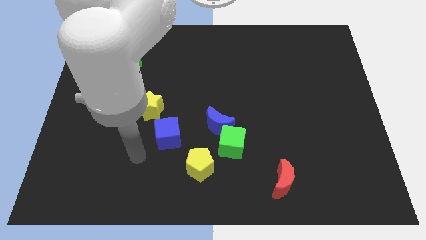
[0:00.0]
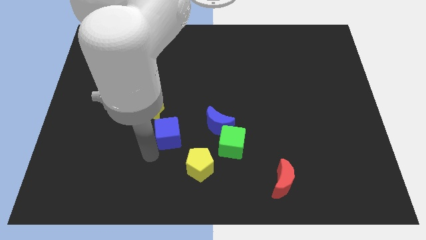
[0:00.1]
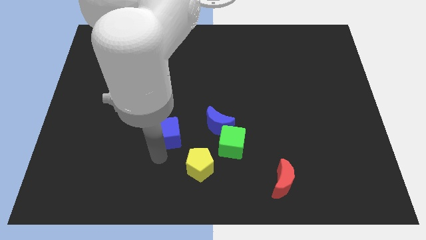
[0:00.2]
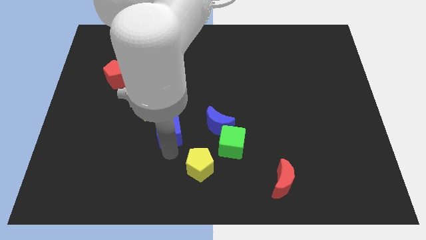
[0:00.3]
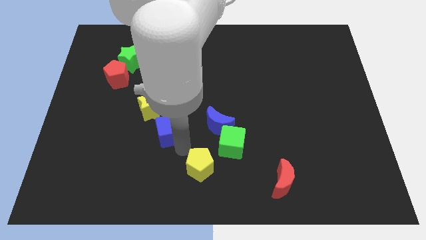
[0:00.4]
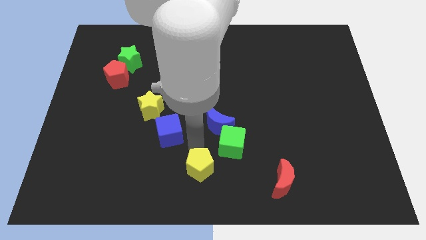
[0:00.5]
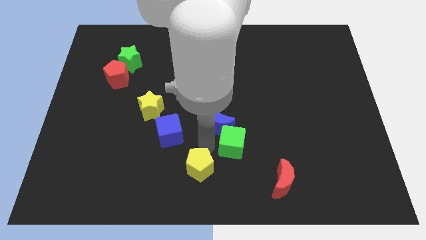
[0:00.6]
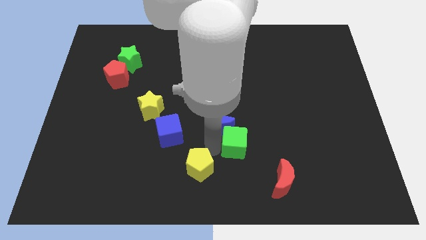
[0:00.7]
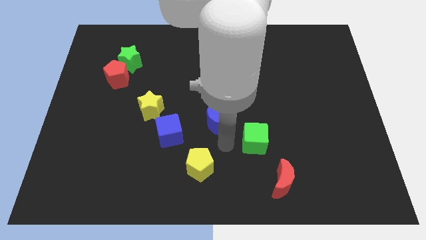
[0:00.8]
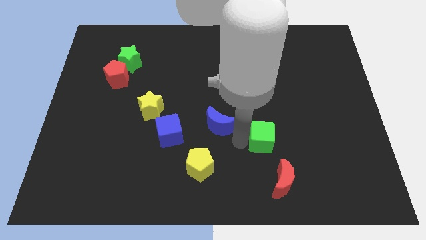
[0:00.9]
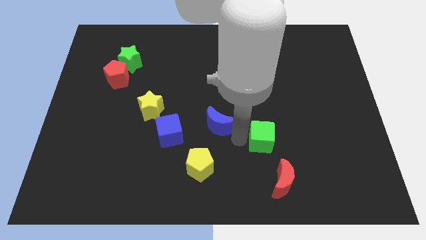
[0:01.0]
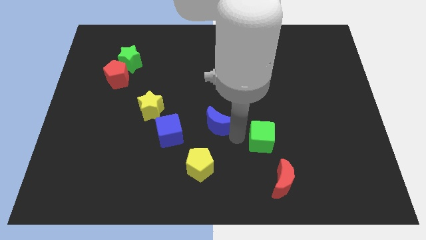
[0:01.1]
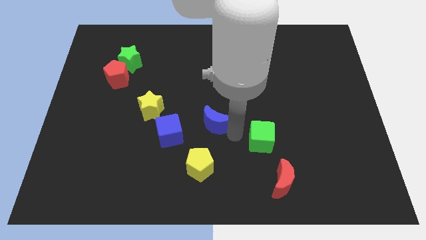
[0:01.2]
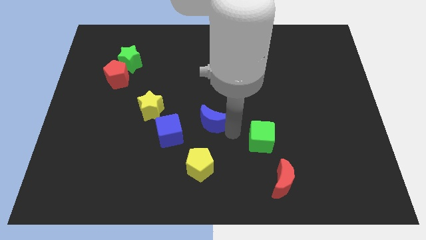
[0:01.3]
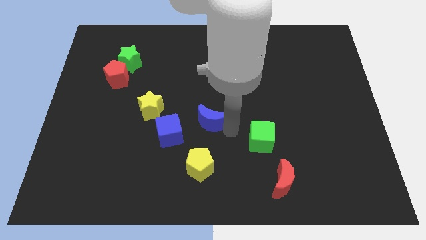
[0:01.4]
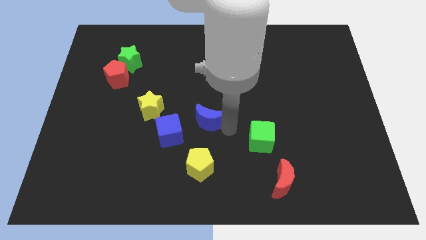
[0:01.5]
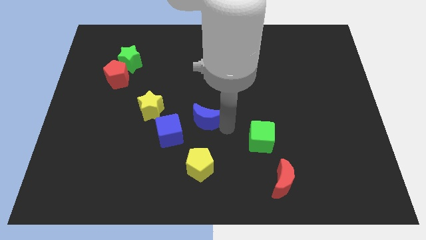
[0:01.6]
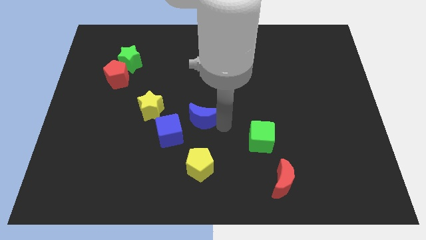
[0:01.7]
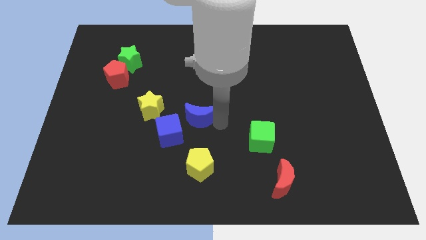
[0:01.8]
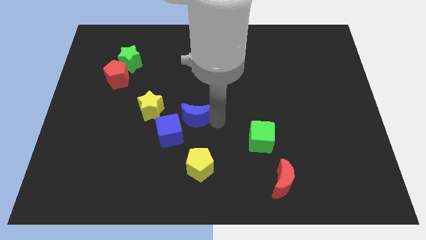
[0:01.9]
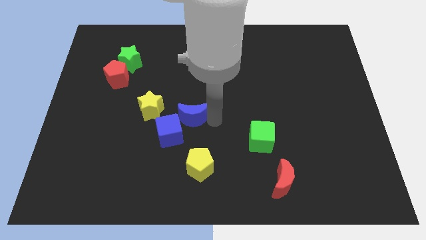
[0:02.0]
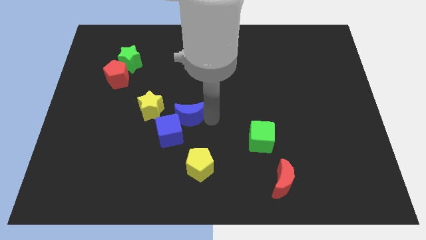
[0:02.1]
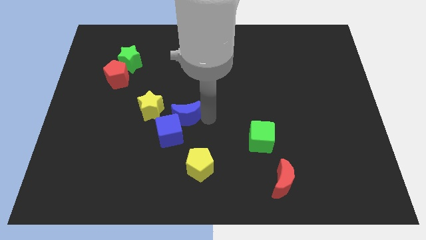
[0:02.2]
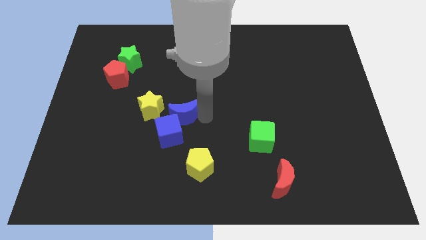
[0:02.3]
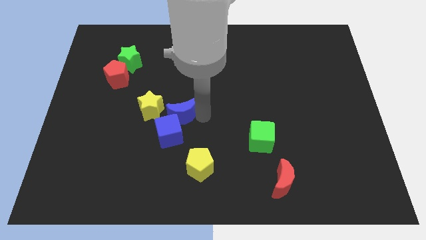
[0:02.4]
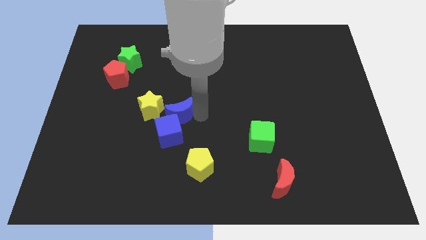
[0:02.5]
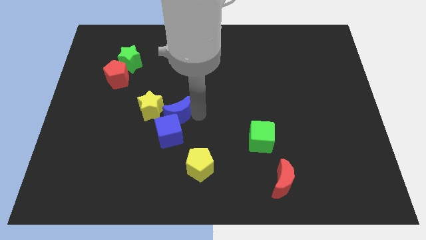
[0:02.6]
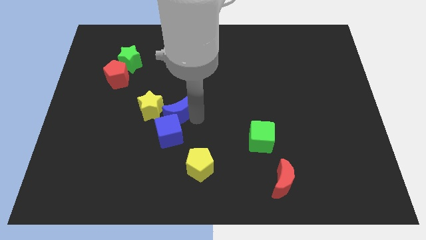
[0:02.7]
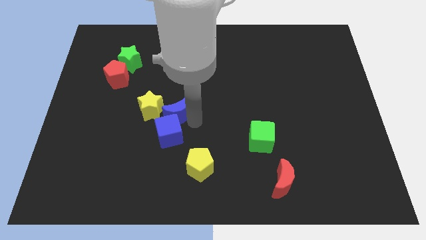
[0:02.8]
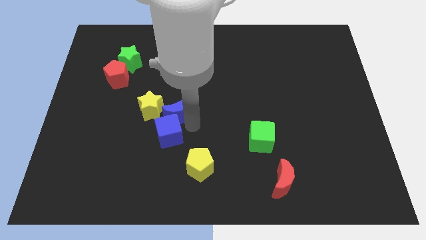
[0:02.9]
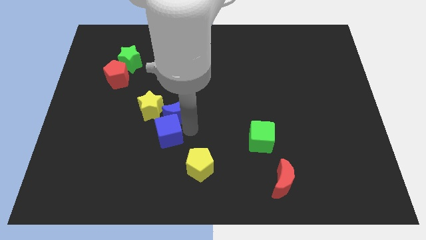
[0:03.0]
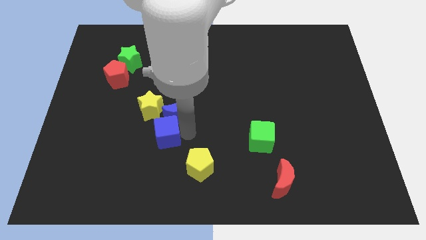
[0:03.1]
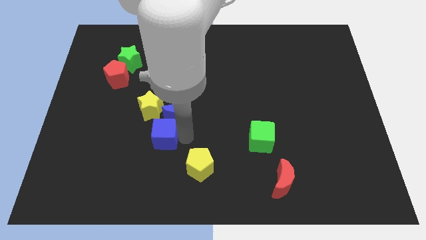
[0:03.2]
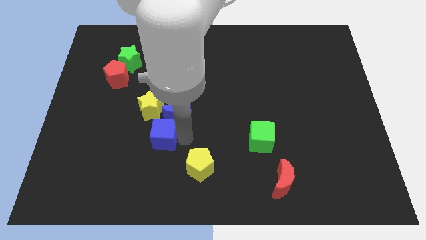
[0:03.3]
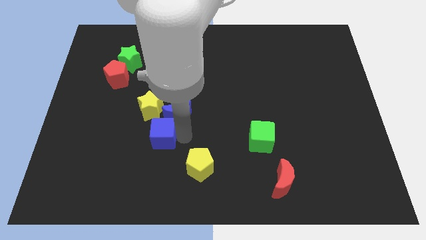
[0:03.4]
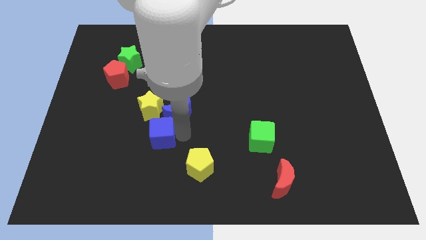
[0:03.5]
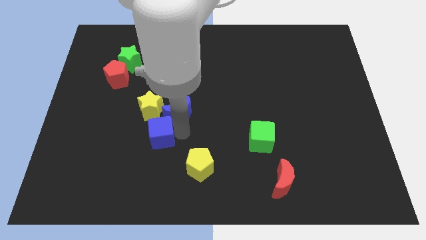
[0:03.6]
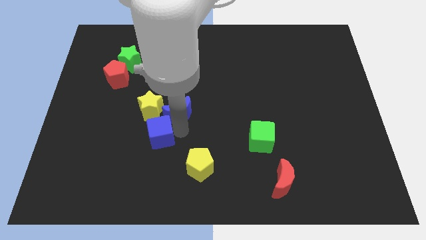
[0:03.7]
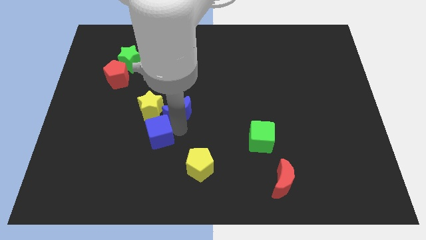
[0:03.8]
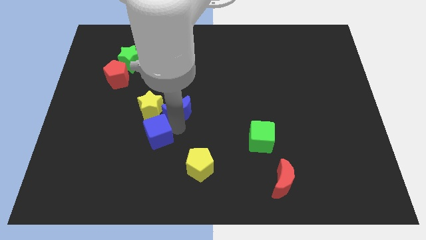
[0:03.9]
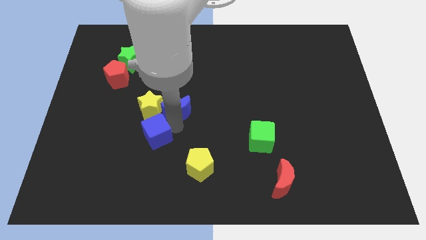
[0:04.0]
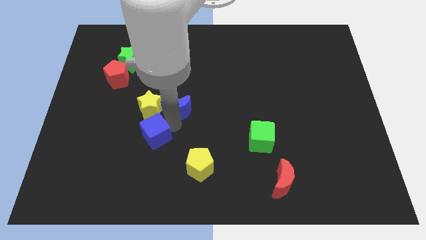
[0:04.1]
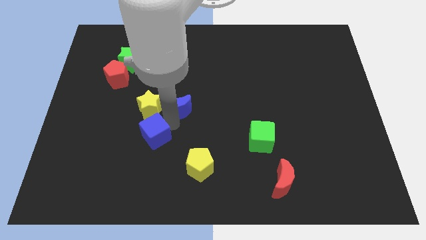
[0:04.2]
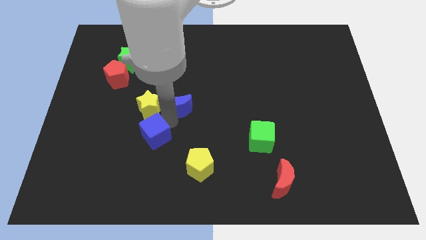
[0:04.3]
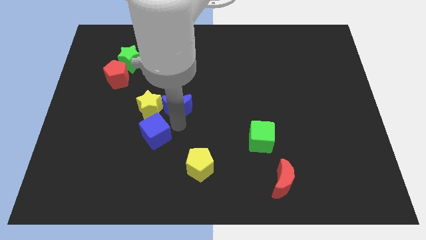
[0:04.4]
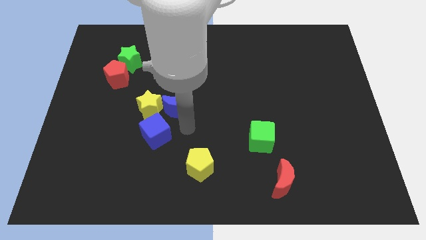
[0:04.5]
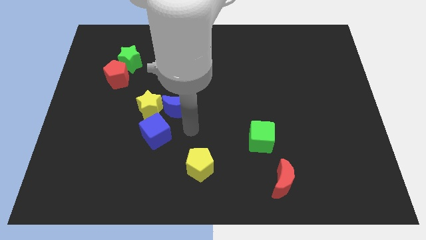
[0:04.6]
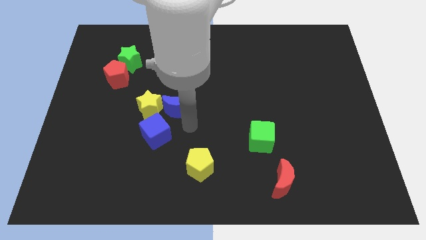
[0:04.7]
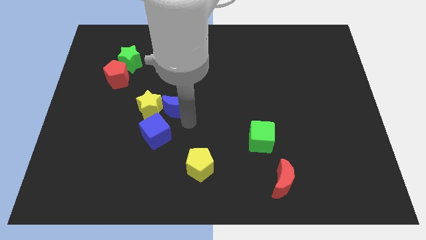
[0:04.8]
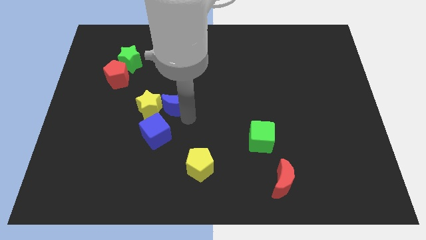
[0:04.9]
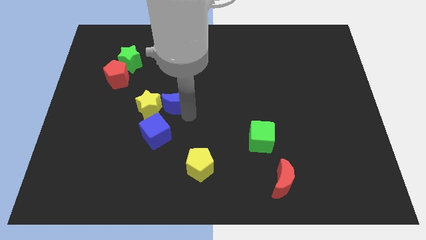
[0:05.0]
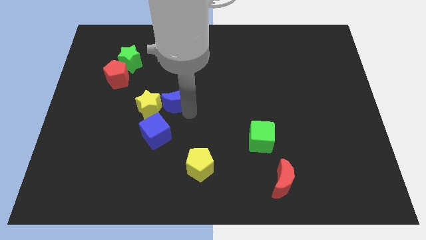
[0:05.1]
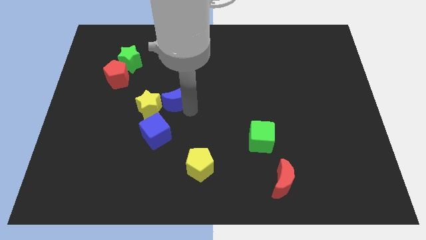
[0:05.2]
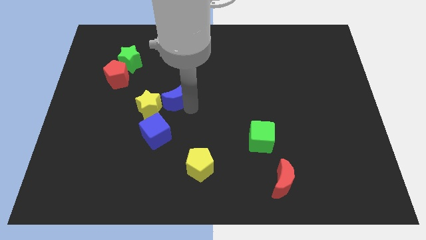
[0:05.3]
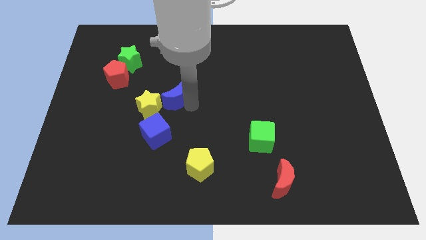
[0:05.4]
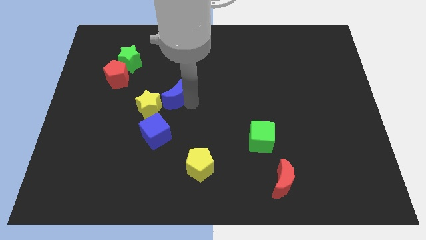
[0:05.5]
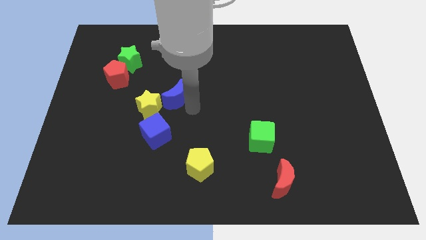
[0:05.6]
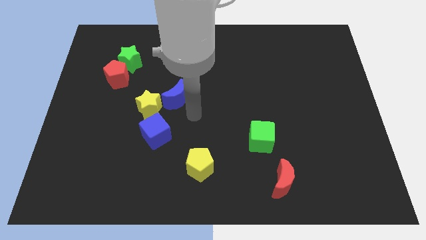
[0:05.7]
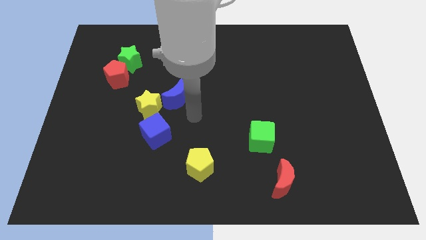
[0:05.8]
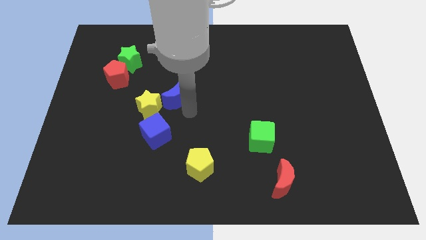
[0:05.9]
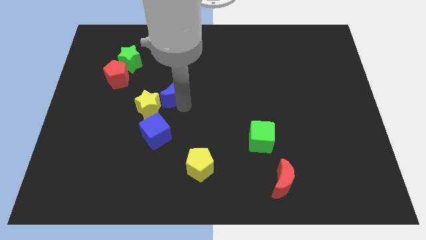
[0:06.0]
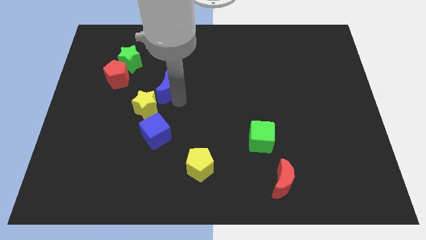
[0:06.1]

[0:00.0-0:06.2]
put the blue moon to the top side of the yellow star

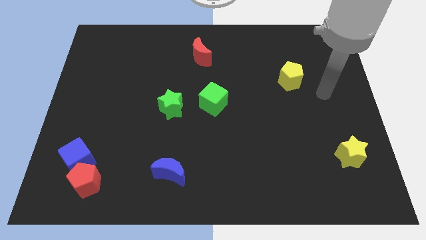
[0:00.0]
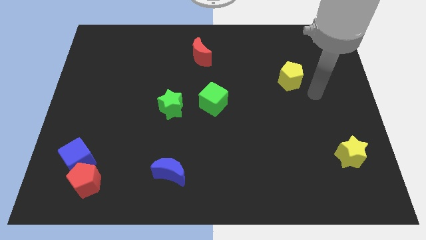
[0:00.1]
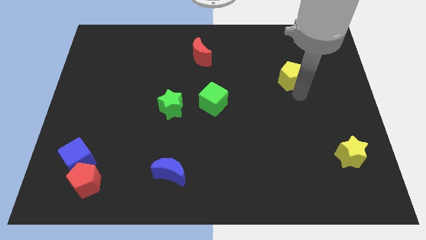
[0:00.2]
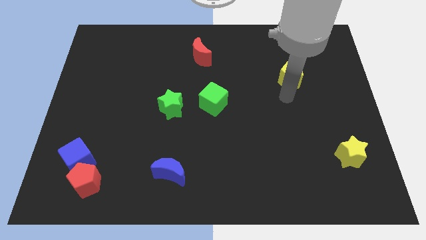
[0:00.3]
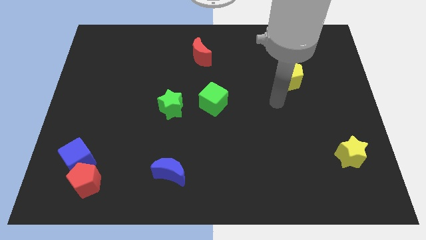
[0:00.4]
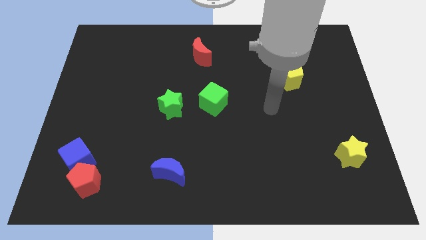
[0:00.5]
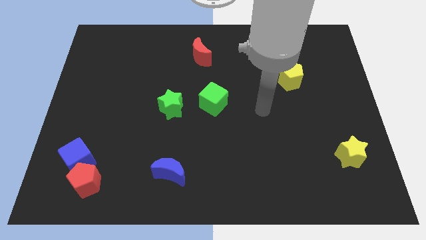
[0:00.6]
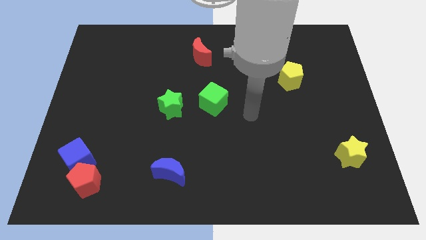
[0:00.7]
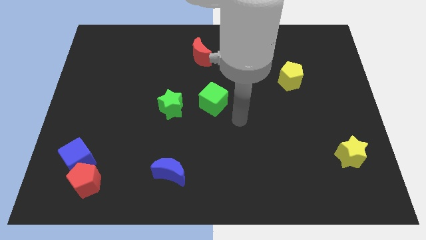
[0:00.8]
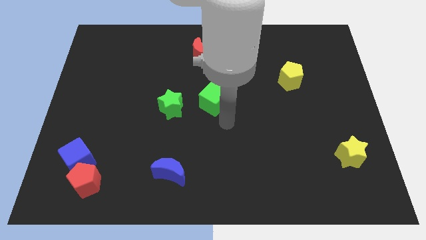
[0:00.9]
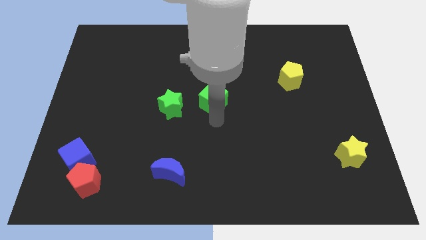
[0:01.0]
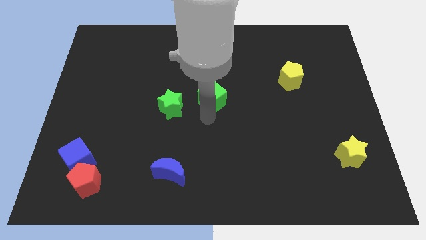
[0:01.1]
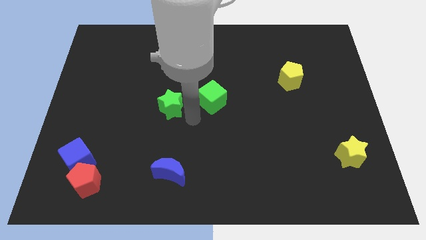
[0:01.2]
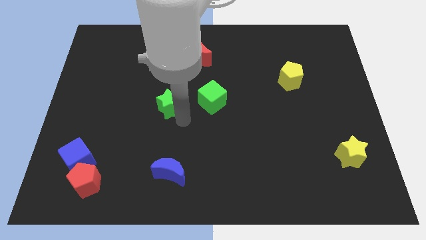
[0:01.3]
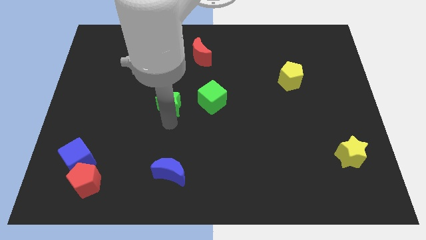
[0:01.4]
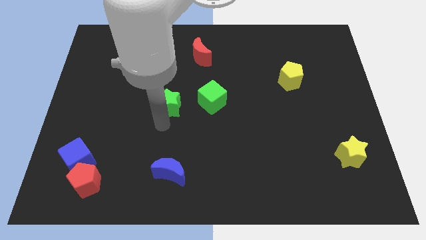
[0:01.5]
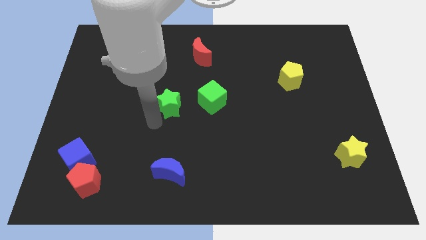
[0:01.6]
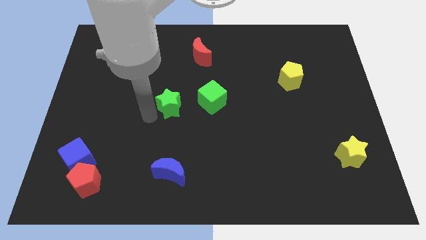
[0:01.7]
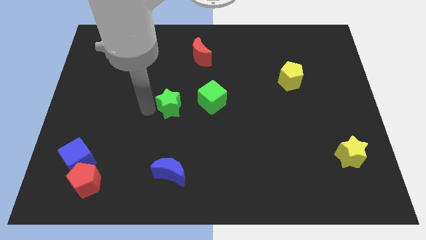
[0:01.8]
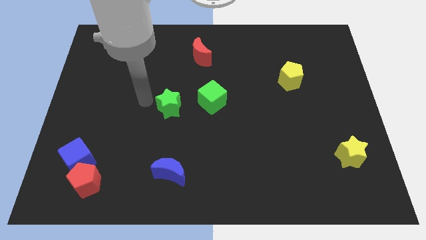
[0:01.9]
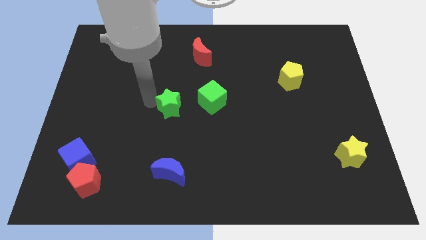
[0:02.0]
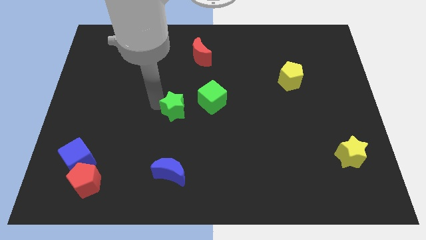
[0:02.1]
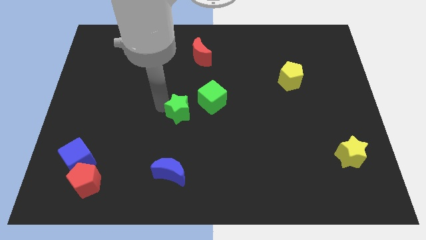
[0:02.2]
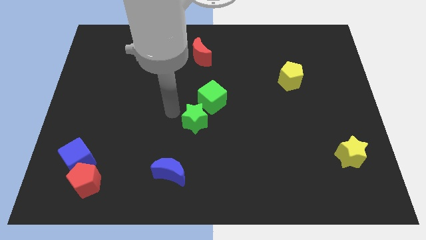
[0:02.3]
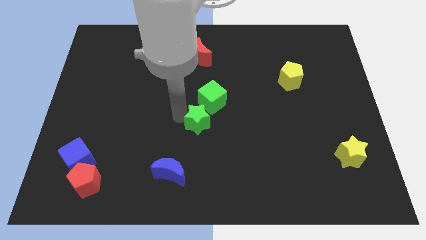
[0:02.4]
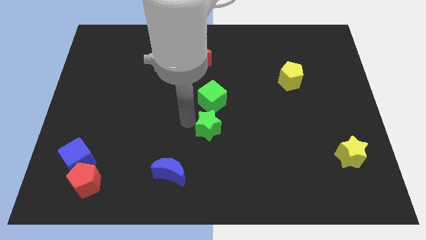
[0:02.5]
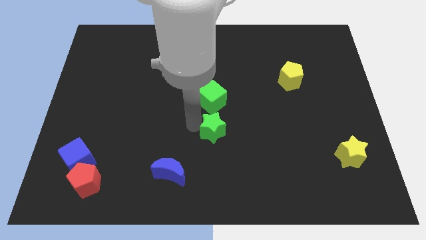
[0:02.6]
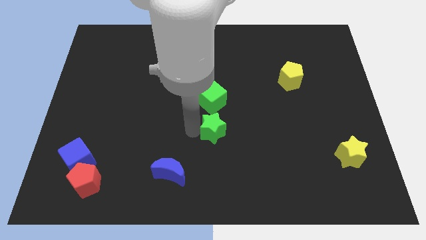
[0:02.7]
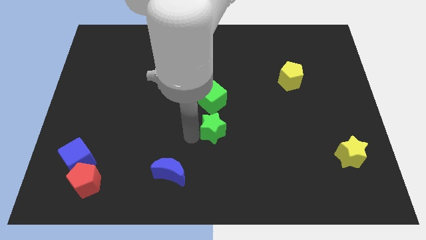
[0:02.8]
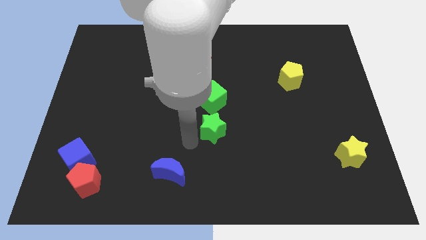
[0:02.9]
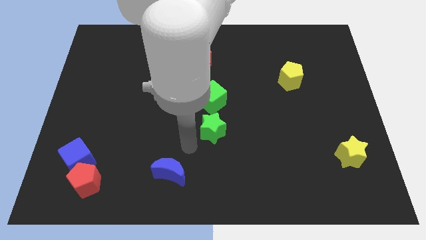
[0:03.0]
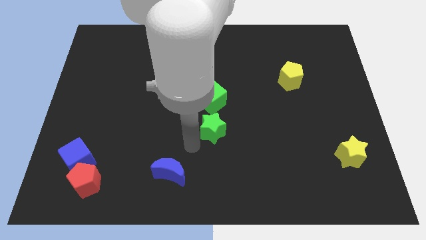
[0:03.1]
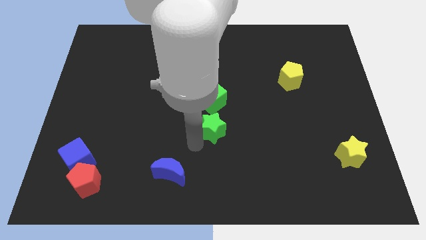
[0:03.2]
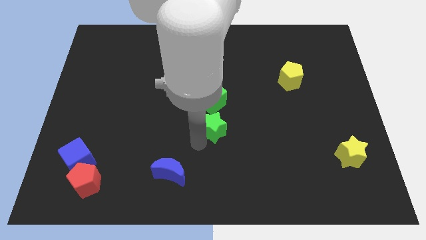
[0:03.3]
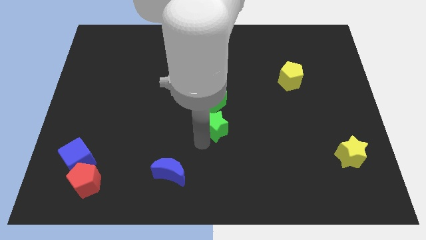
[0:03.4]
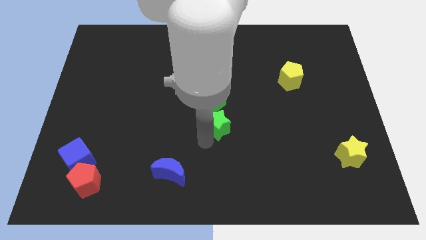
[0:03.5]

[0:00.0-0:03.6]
put the green star to the bottom right side of the green cube
